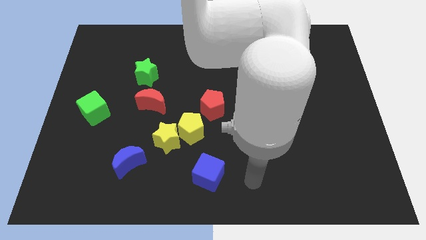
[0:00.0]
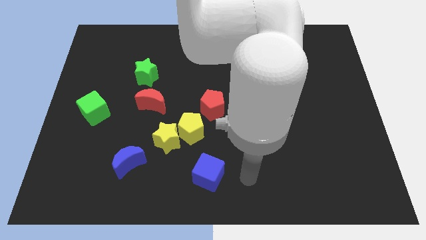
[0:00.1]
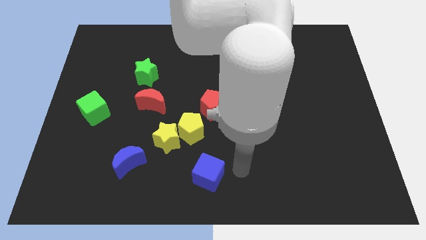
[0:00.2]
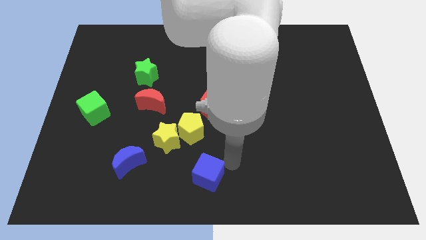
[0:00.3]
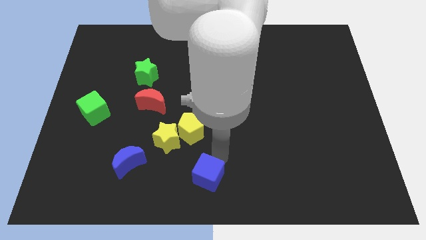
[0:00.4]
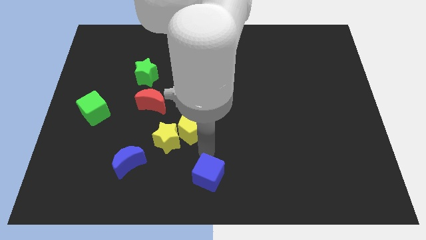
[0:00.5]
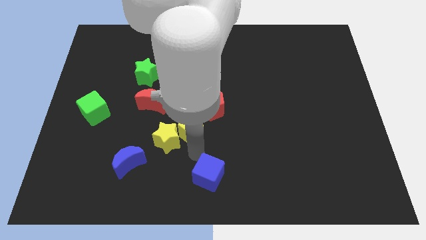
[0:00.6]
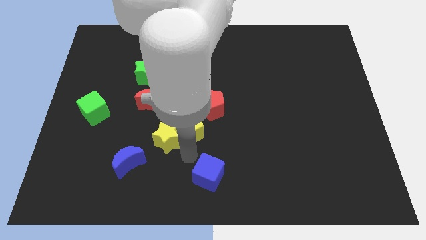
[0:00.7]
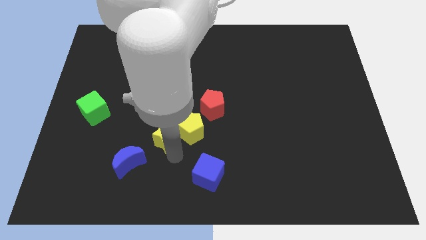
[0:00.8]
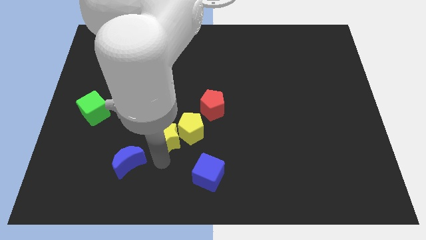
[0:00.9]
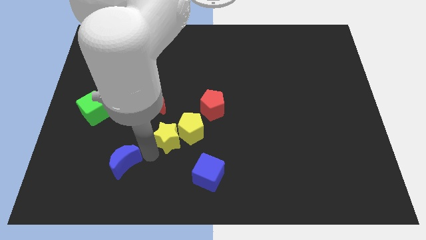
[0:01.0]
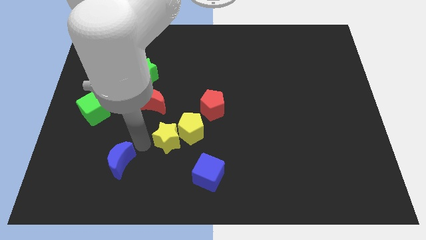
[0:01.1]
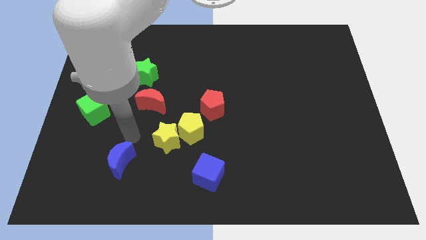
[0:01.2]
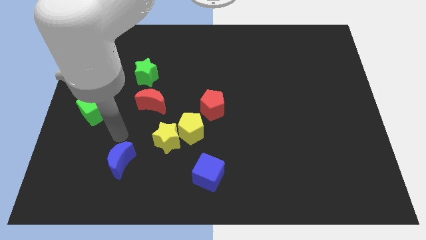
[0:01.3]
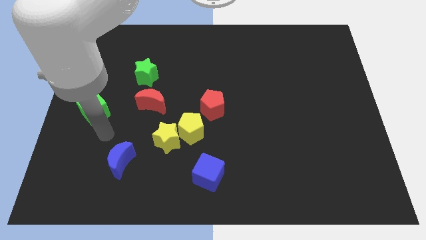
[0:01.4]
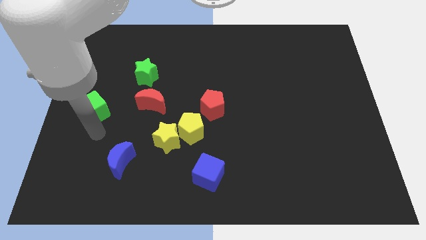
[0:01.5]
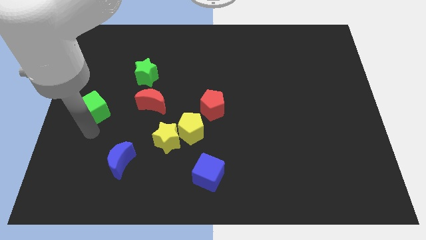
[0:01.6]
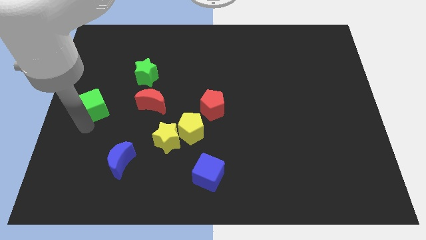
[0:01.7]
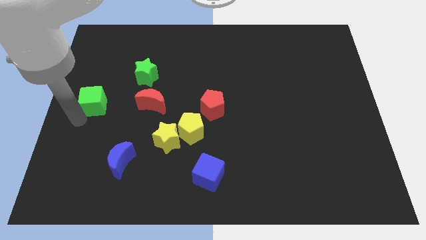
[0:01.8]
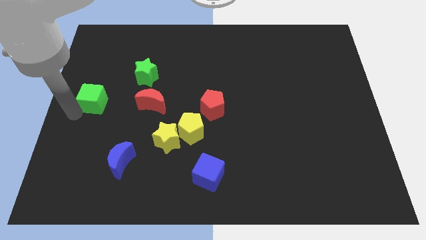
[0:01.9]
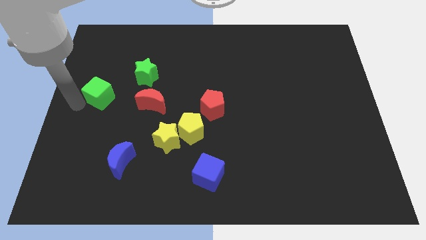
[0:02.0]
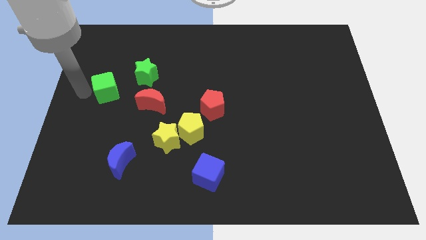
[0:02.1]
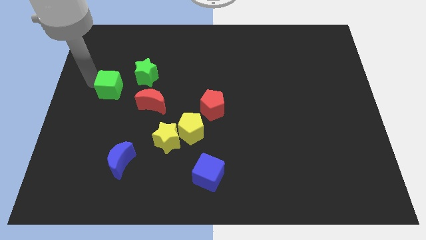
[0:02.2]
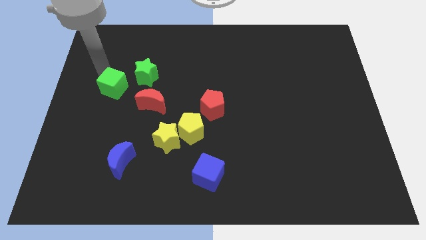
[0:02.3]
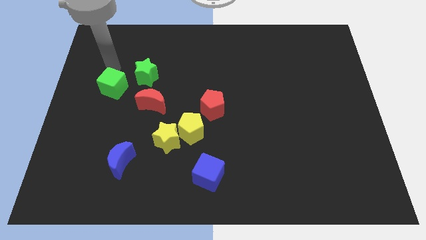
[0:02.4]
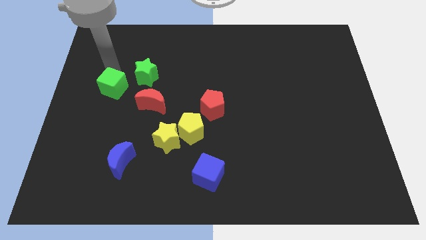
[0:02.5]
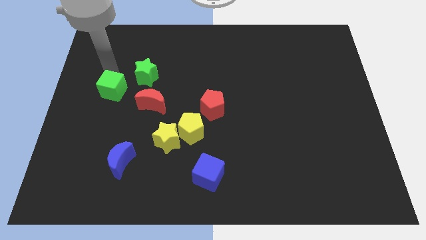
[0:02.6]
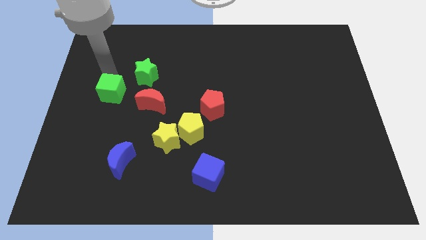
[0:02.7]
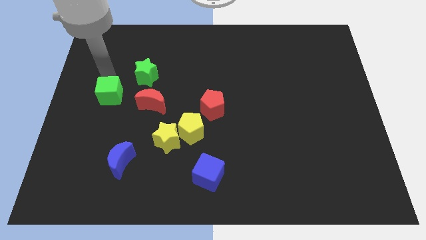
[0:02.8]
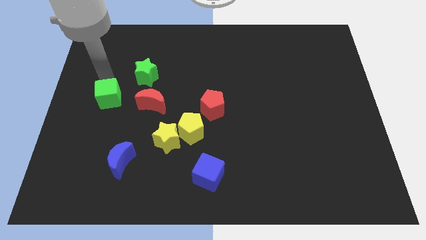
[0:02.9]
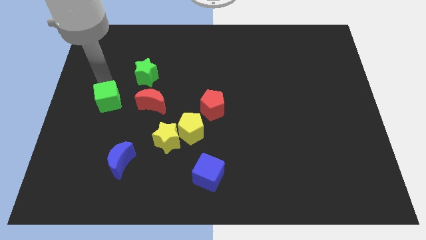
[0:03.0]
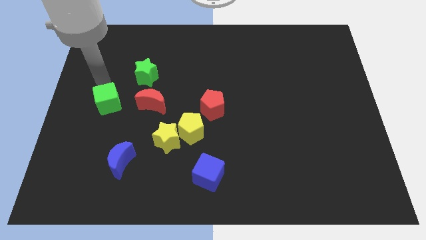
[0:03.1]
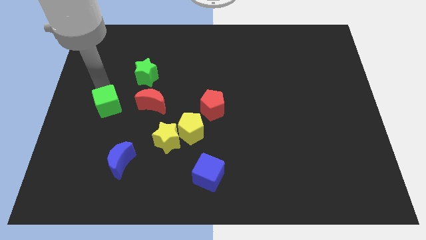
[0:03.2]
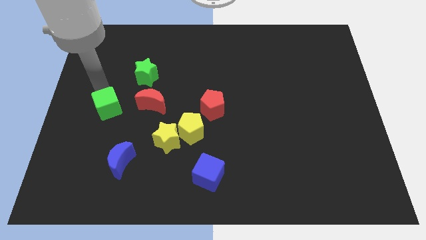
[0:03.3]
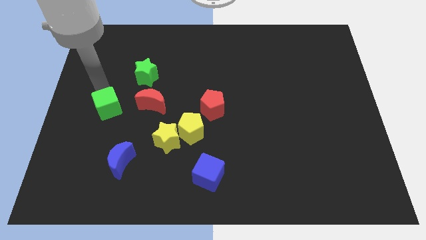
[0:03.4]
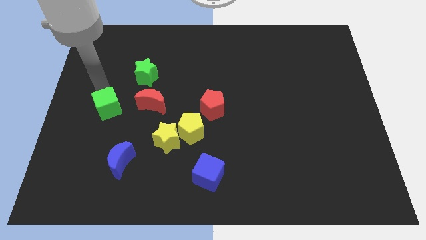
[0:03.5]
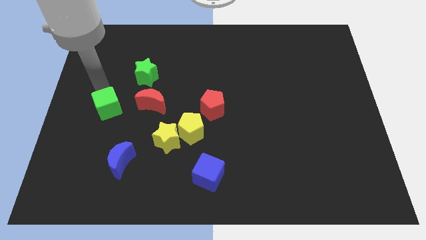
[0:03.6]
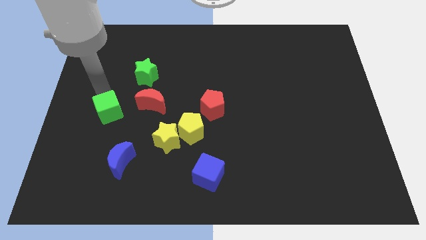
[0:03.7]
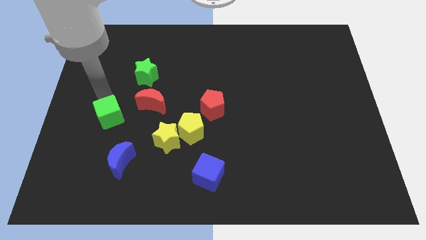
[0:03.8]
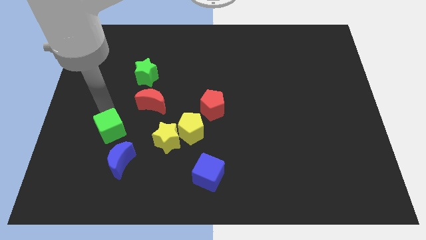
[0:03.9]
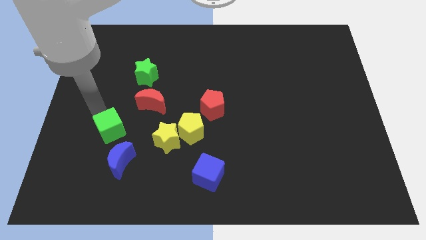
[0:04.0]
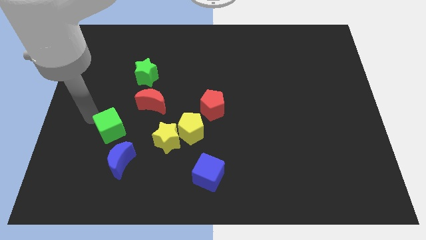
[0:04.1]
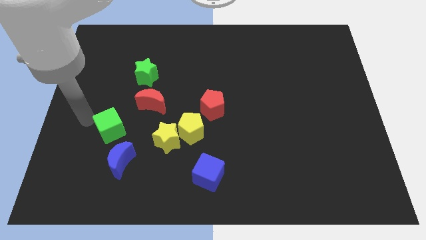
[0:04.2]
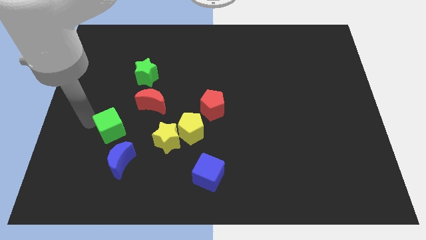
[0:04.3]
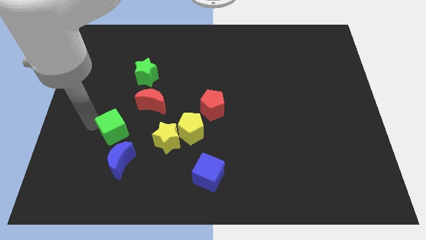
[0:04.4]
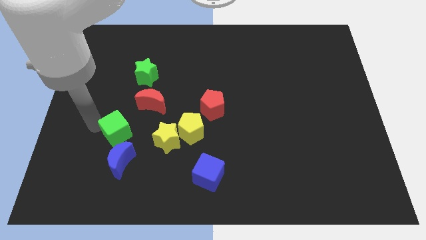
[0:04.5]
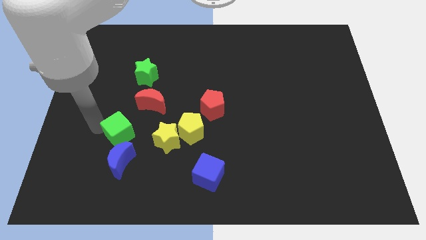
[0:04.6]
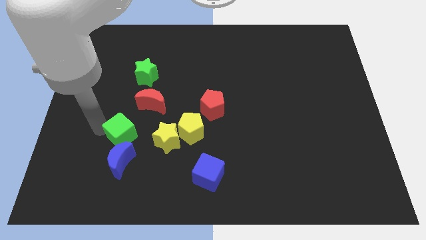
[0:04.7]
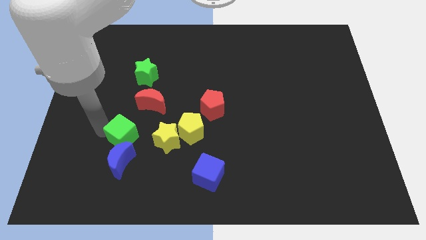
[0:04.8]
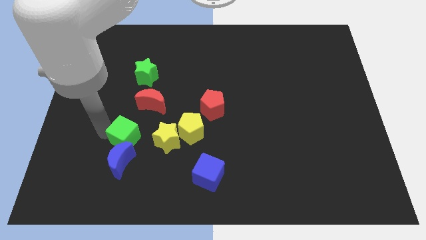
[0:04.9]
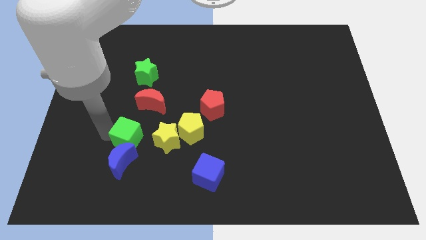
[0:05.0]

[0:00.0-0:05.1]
slide the green cube below the red moon

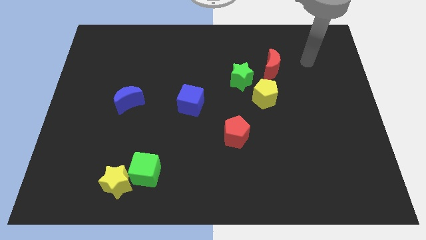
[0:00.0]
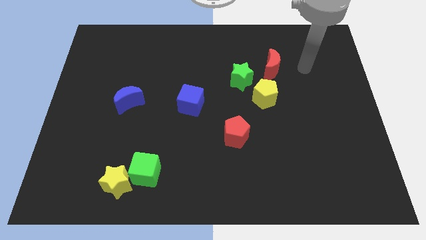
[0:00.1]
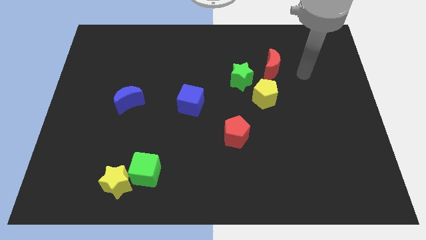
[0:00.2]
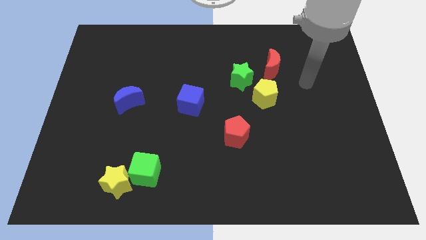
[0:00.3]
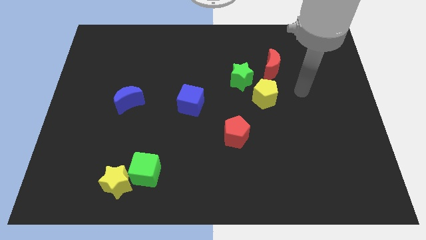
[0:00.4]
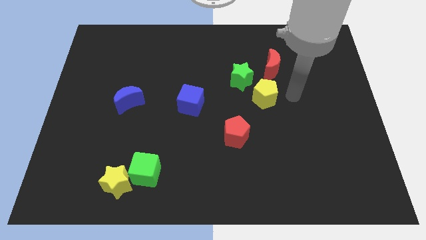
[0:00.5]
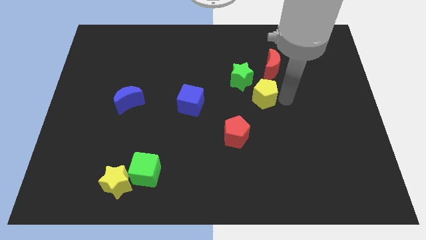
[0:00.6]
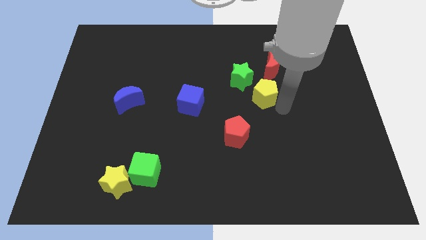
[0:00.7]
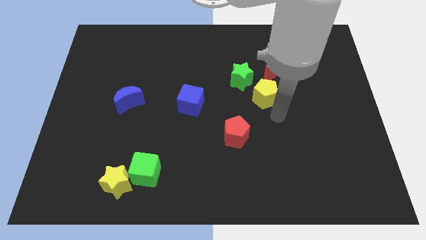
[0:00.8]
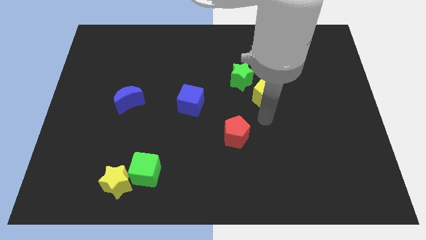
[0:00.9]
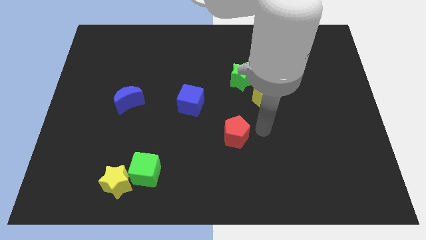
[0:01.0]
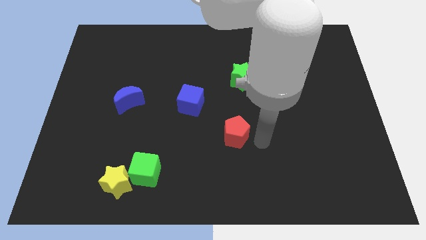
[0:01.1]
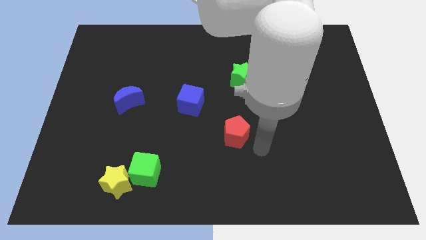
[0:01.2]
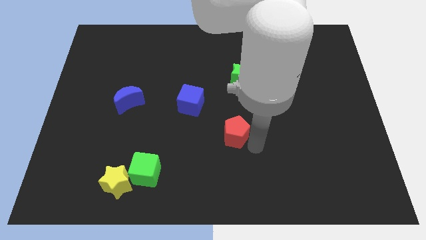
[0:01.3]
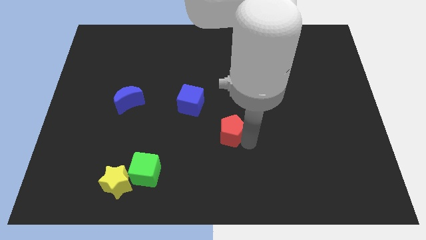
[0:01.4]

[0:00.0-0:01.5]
move the red pentagon diagonally down and to the right of the blue cube

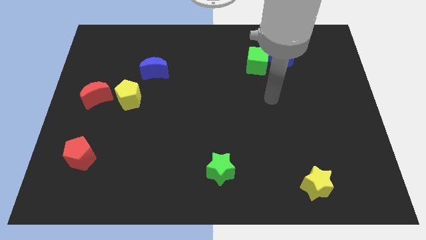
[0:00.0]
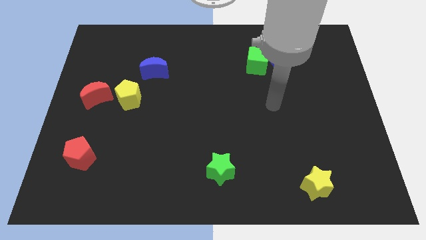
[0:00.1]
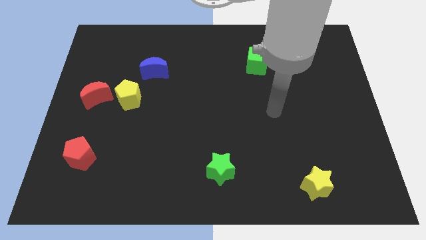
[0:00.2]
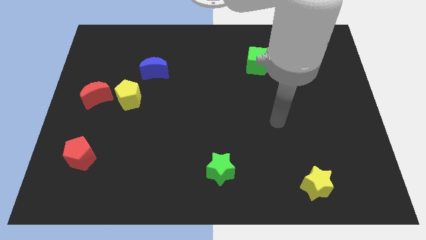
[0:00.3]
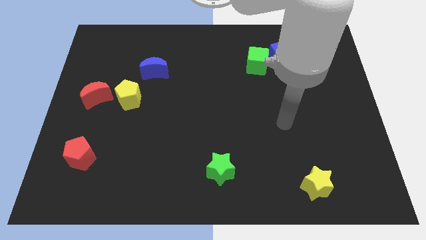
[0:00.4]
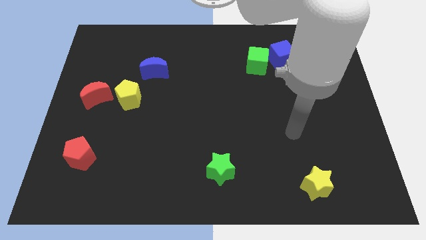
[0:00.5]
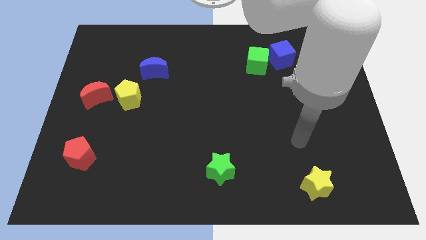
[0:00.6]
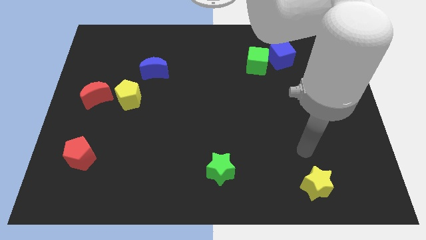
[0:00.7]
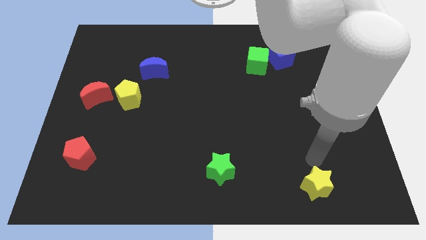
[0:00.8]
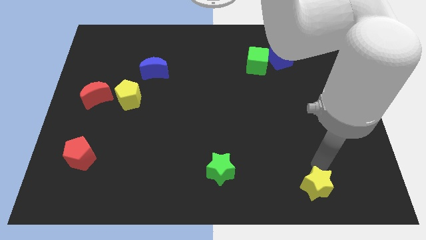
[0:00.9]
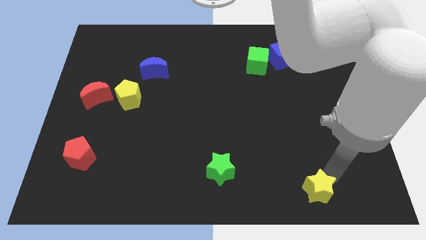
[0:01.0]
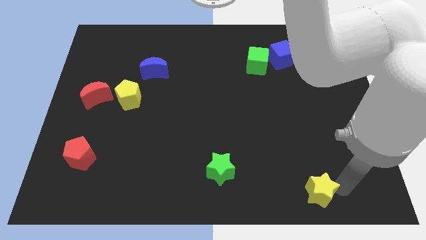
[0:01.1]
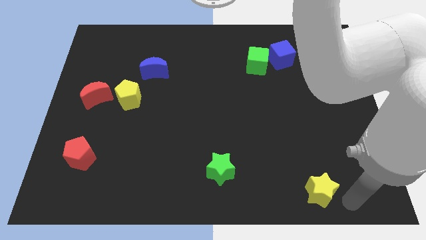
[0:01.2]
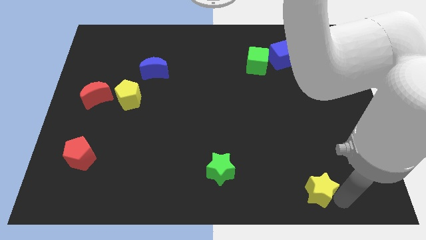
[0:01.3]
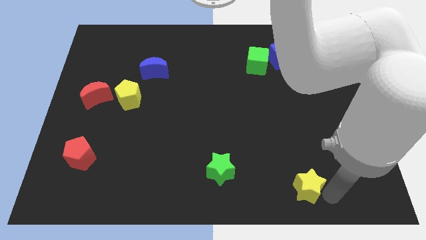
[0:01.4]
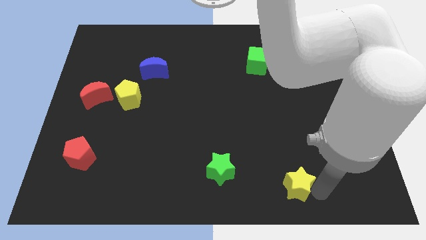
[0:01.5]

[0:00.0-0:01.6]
slide the yellow star just right of the green star
